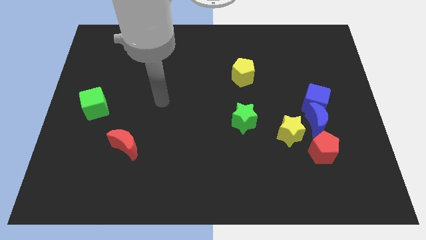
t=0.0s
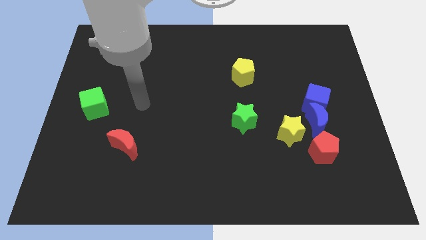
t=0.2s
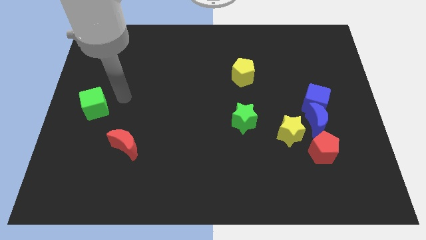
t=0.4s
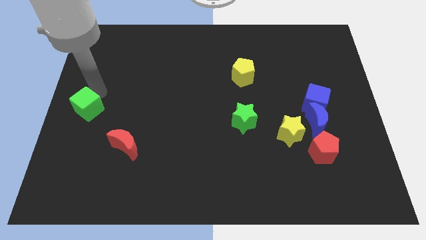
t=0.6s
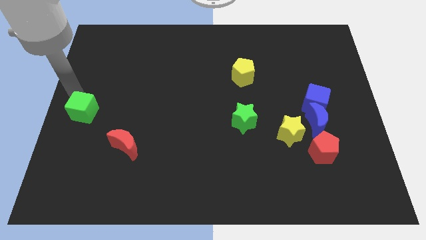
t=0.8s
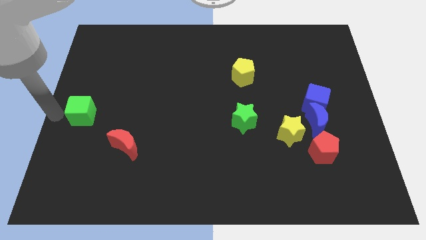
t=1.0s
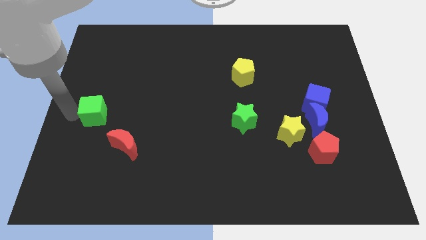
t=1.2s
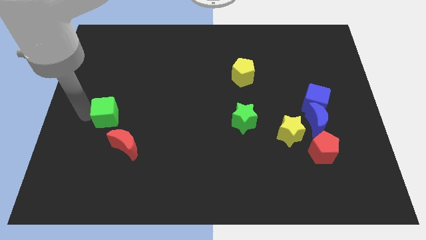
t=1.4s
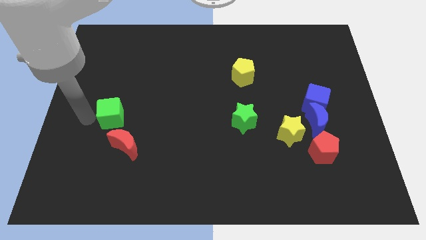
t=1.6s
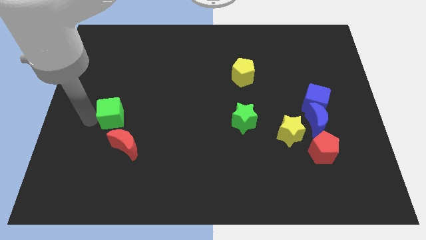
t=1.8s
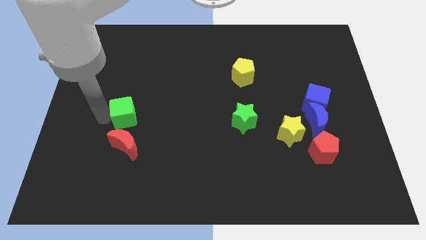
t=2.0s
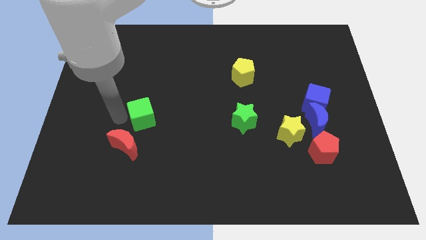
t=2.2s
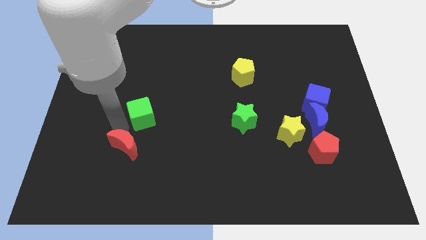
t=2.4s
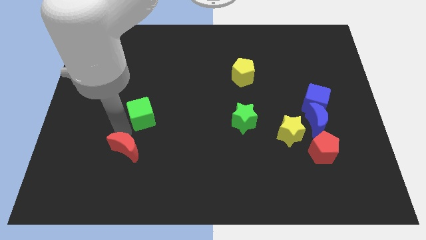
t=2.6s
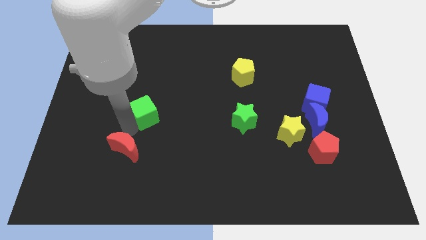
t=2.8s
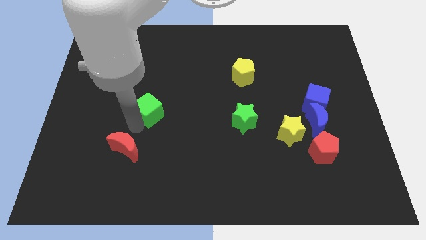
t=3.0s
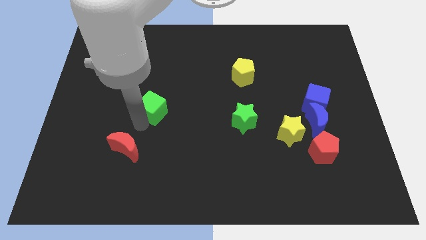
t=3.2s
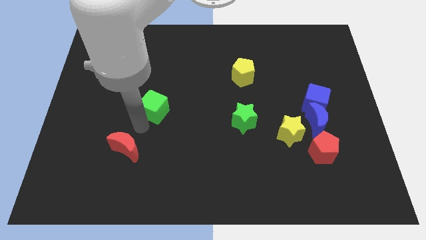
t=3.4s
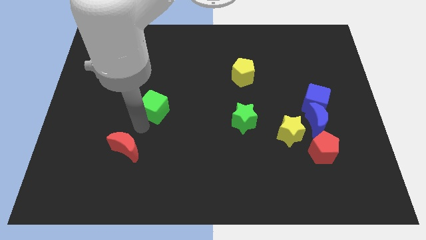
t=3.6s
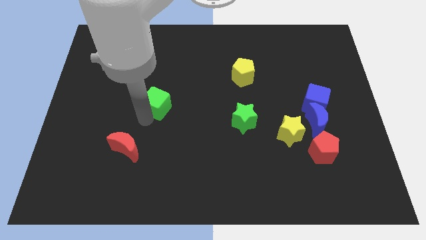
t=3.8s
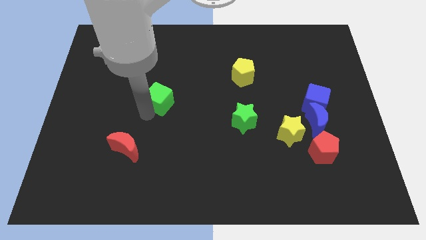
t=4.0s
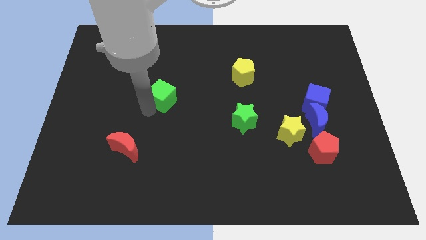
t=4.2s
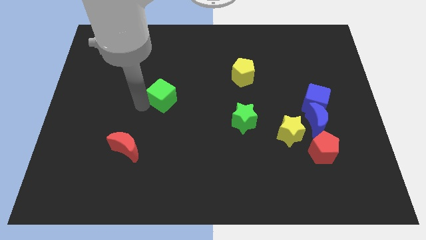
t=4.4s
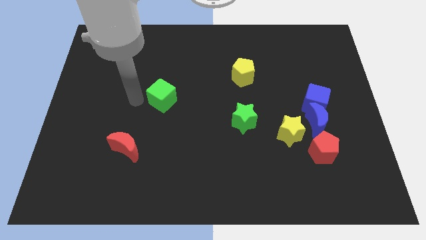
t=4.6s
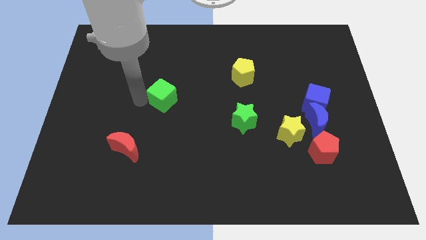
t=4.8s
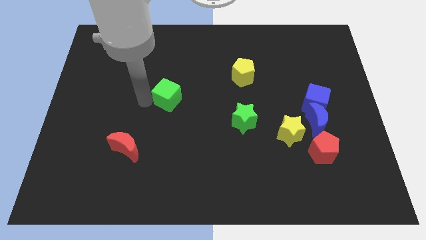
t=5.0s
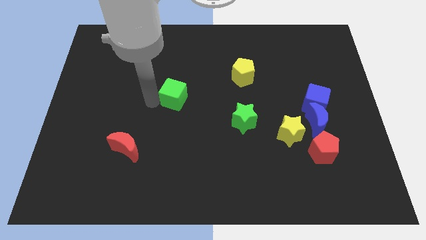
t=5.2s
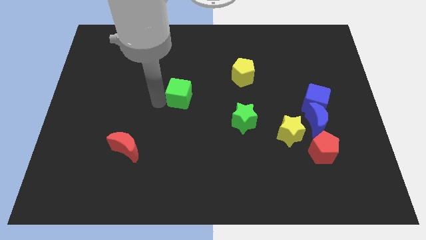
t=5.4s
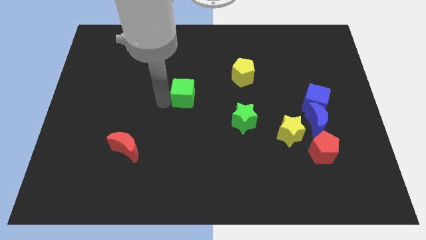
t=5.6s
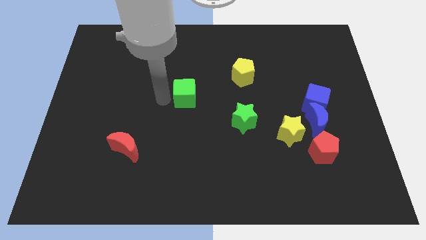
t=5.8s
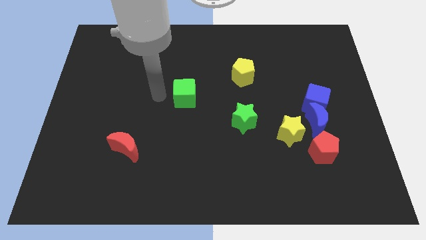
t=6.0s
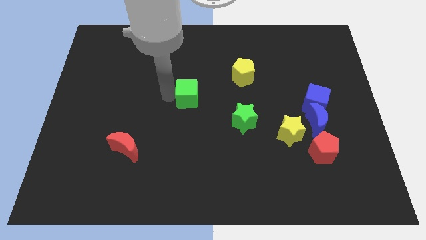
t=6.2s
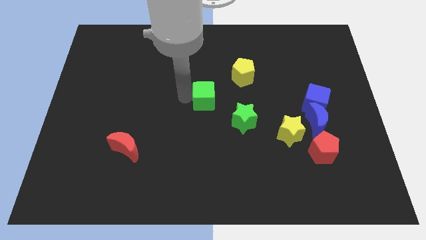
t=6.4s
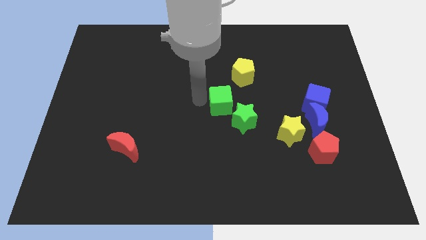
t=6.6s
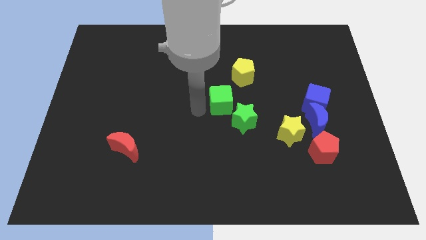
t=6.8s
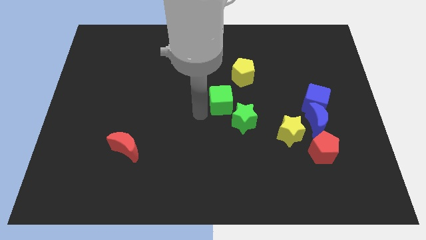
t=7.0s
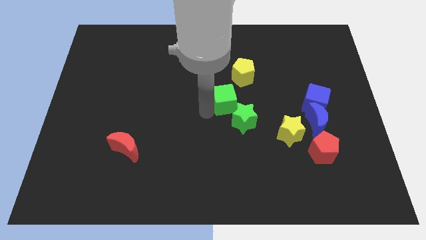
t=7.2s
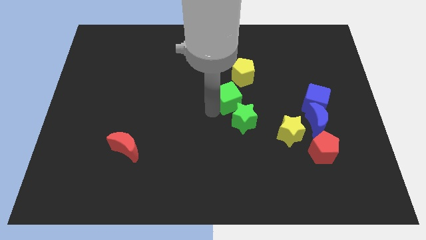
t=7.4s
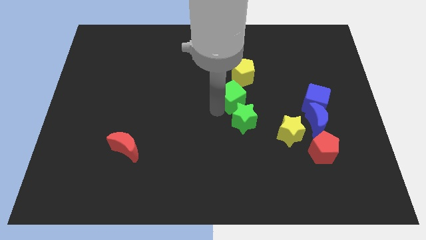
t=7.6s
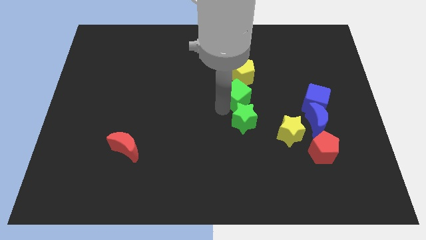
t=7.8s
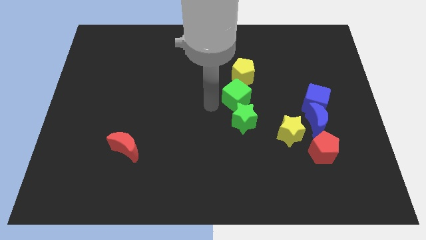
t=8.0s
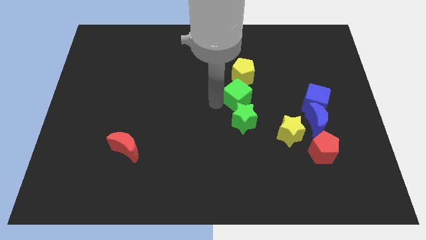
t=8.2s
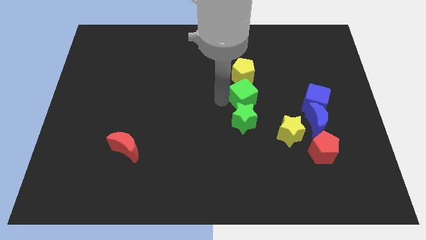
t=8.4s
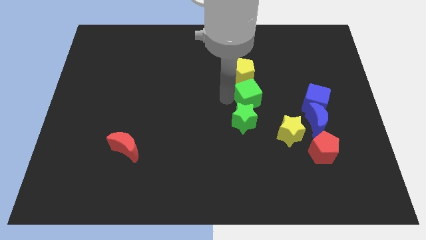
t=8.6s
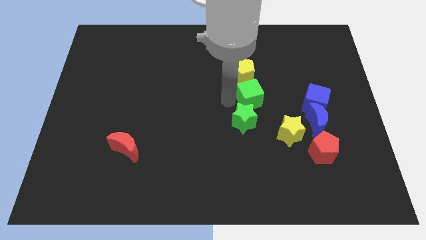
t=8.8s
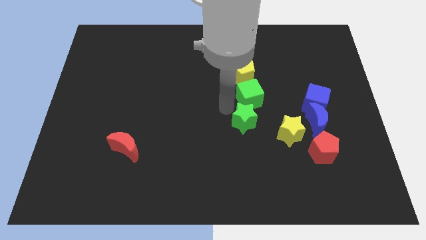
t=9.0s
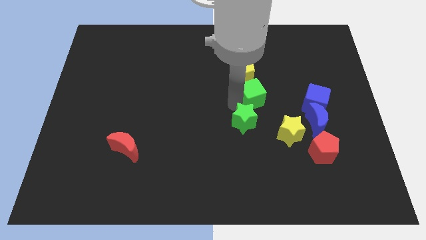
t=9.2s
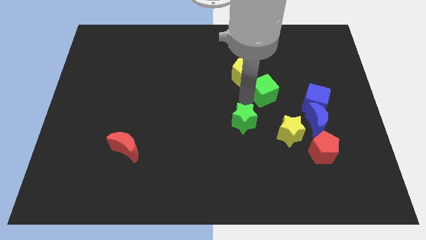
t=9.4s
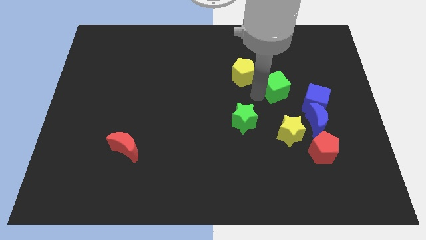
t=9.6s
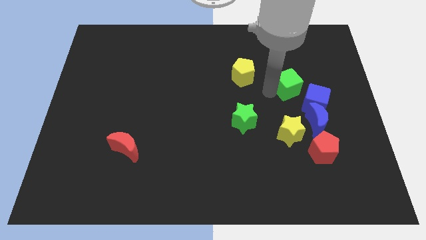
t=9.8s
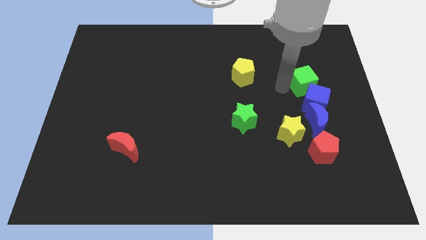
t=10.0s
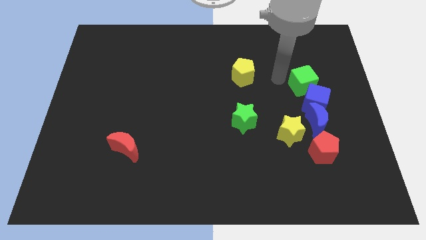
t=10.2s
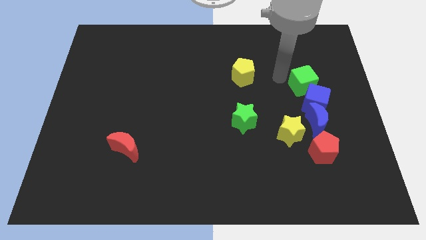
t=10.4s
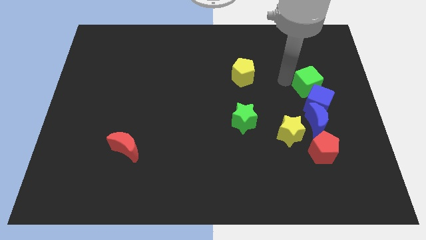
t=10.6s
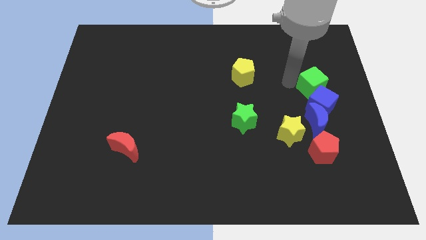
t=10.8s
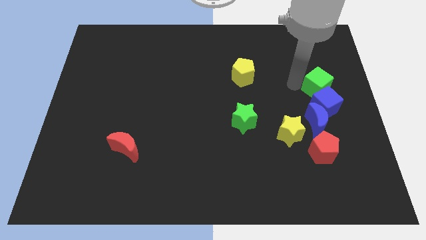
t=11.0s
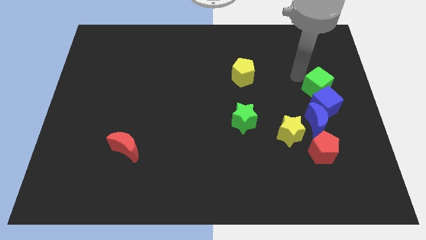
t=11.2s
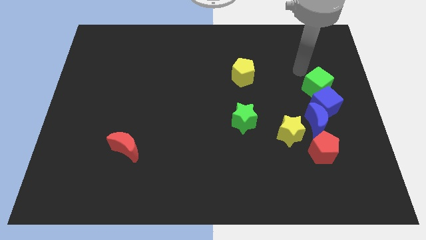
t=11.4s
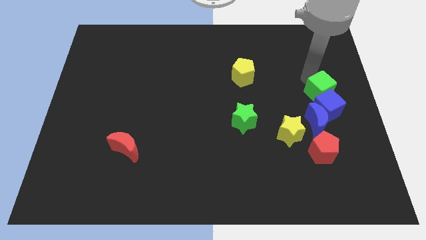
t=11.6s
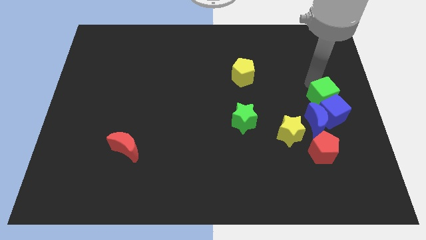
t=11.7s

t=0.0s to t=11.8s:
move the green cube to the top right of the blue moon

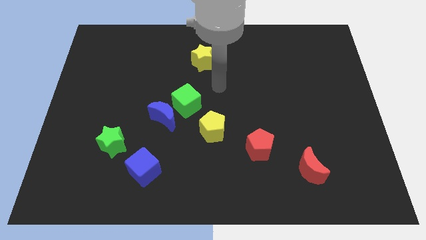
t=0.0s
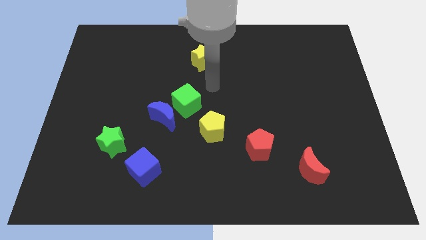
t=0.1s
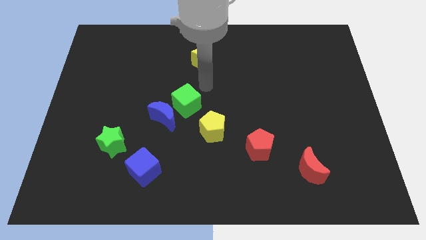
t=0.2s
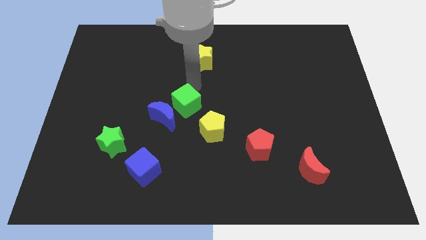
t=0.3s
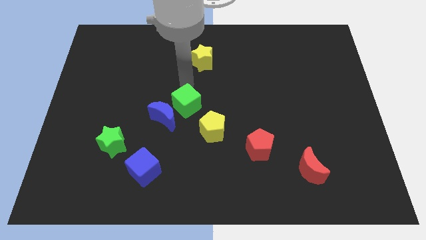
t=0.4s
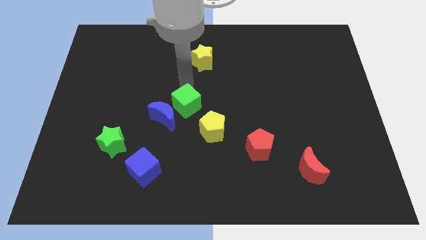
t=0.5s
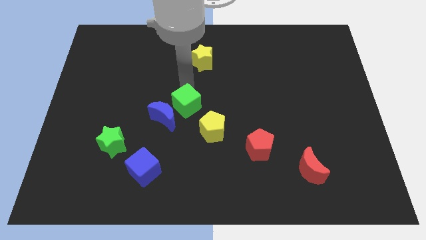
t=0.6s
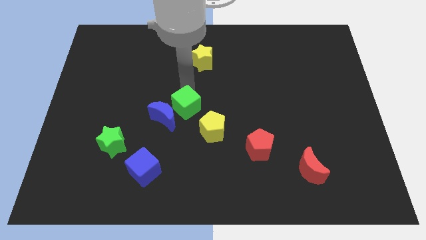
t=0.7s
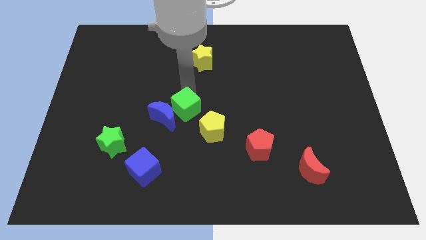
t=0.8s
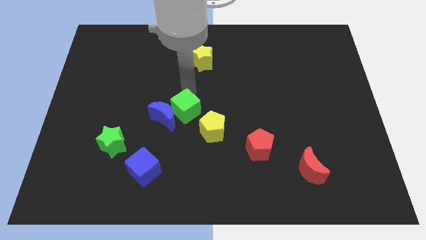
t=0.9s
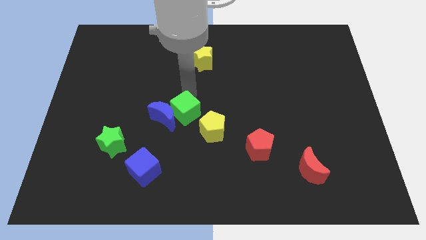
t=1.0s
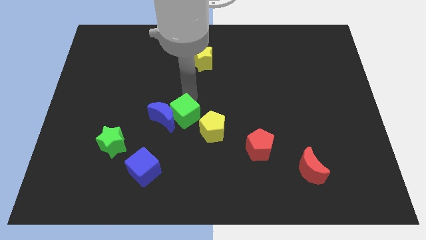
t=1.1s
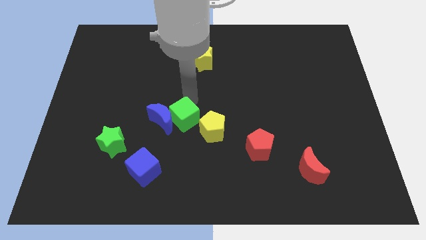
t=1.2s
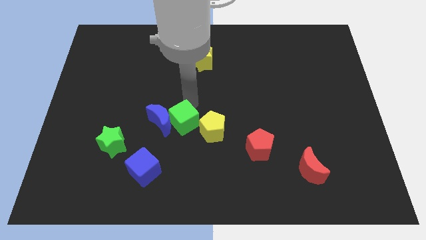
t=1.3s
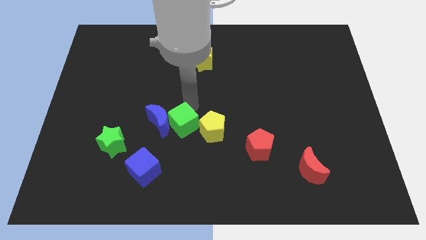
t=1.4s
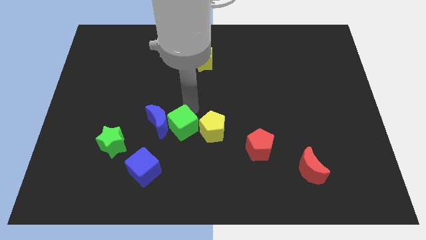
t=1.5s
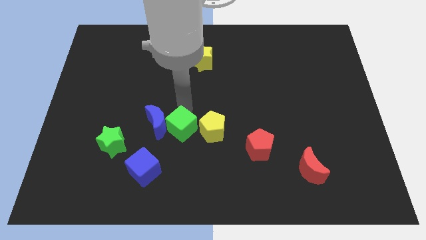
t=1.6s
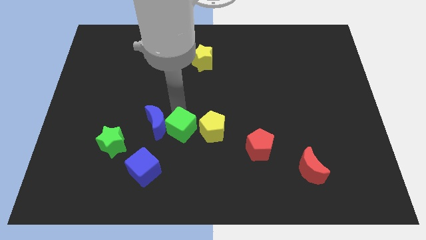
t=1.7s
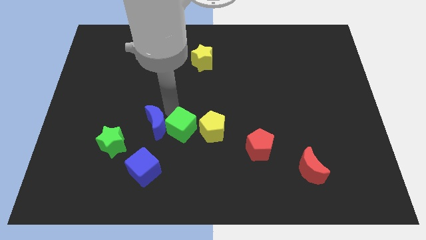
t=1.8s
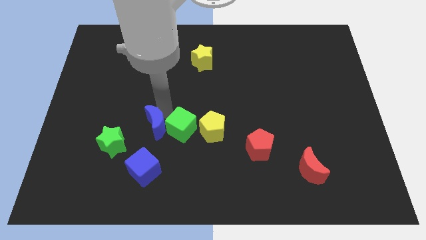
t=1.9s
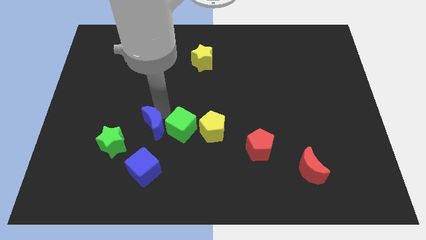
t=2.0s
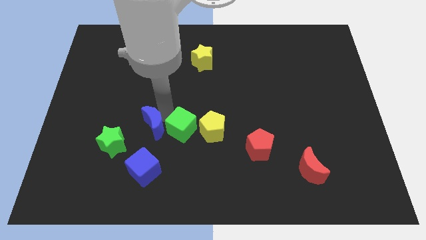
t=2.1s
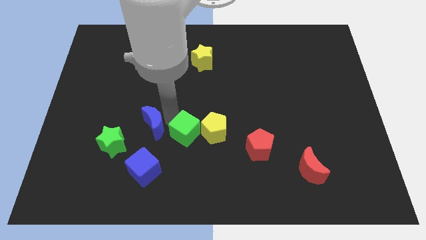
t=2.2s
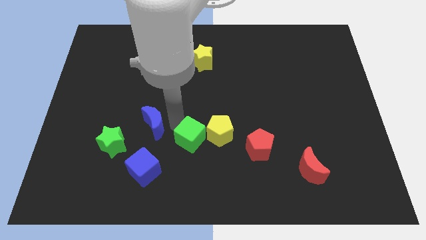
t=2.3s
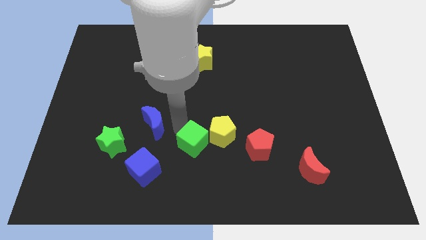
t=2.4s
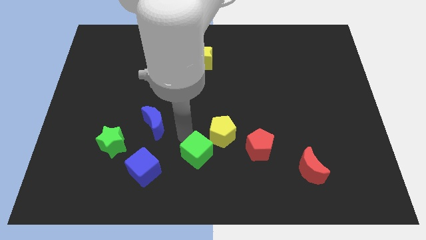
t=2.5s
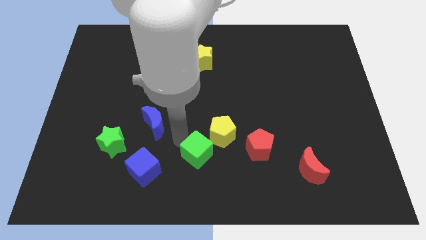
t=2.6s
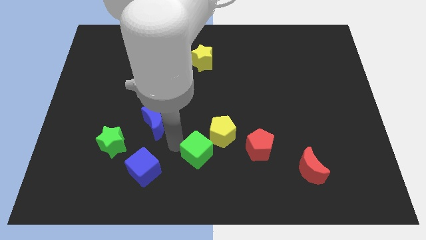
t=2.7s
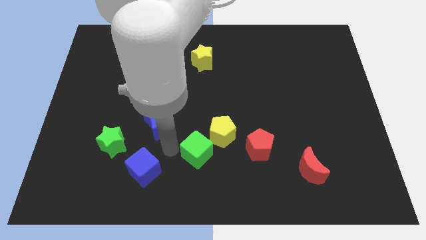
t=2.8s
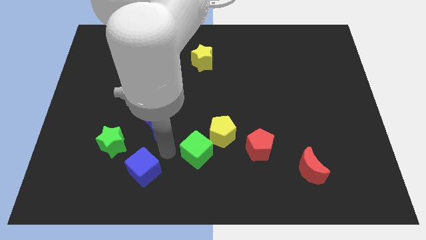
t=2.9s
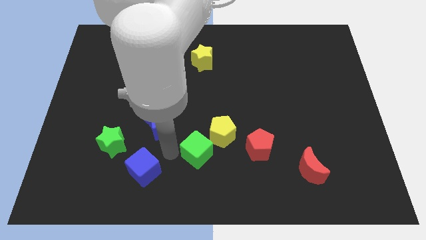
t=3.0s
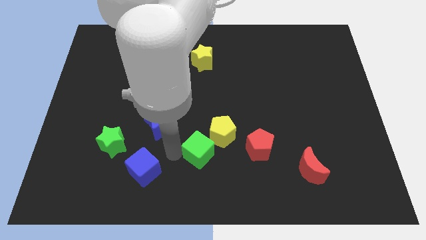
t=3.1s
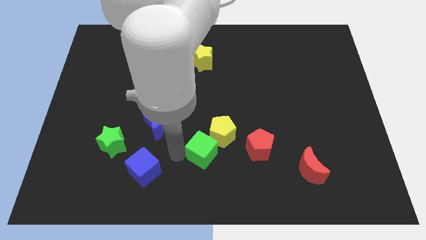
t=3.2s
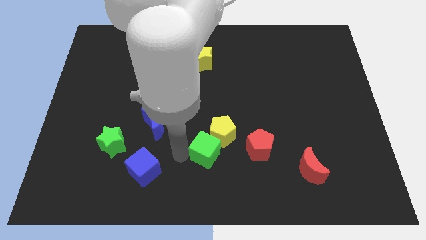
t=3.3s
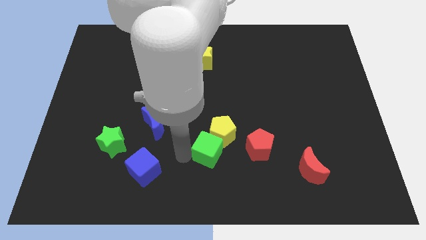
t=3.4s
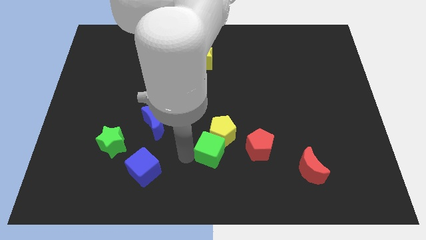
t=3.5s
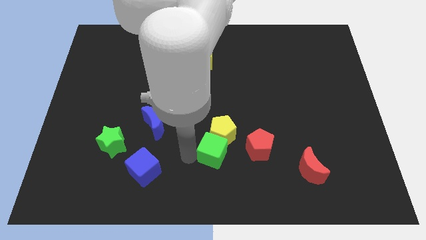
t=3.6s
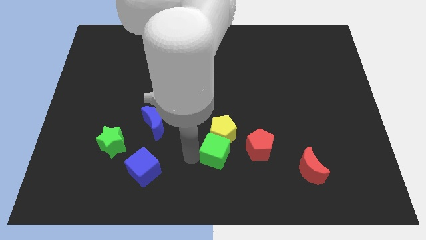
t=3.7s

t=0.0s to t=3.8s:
push the green cube to the bottom right of the yellow pentagon
